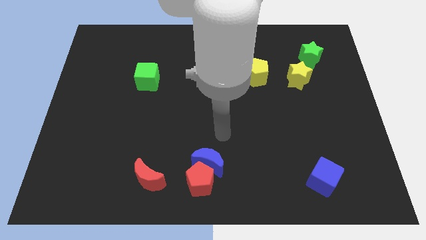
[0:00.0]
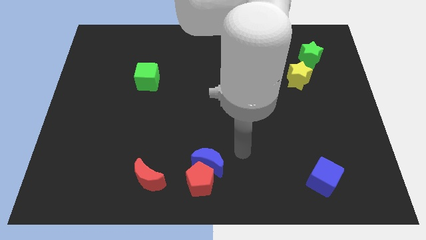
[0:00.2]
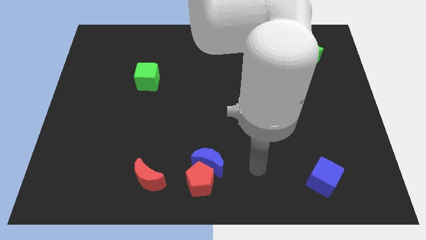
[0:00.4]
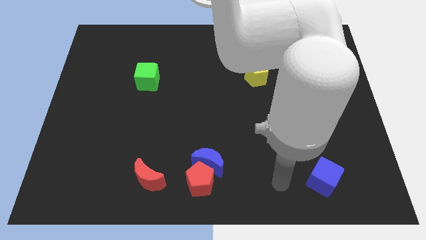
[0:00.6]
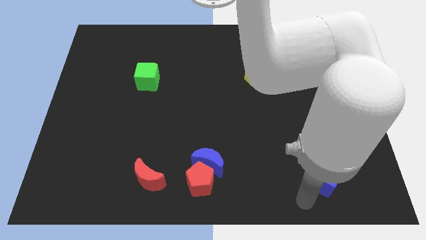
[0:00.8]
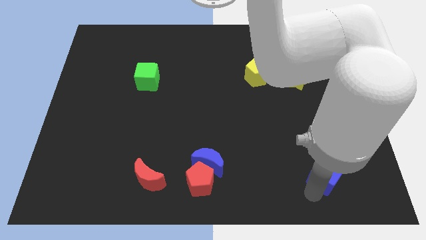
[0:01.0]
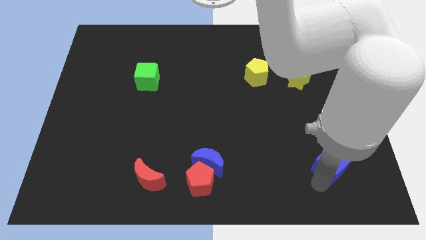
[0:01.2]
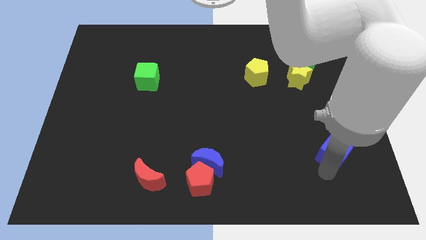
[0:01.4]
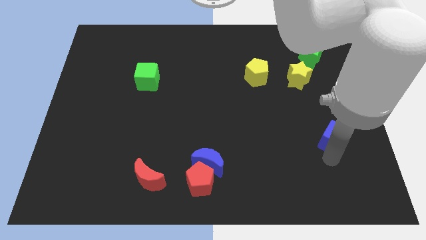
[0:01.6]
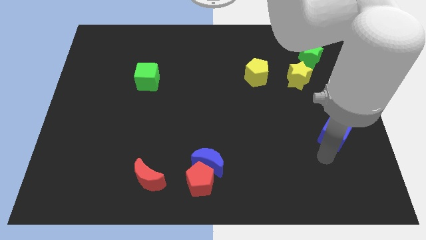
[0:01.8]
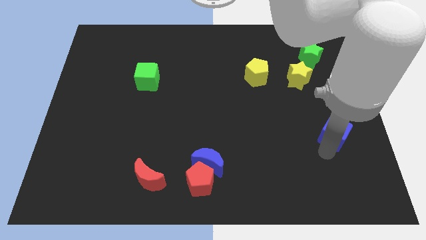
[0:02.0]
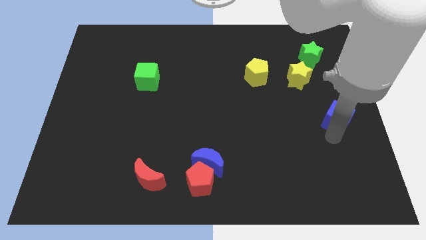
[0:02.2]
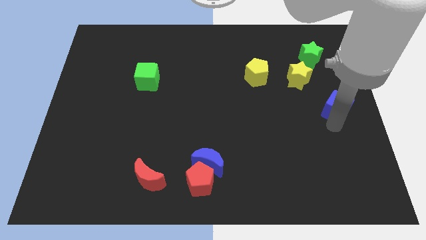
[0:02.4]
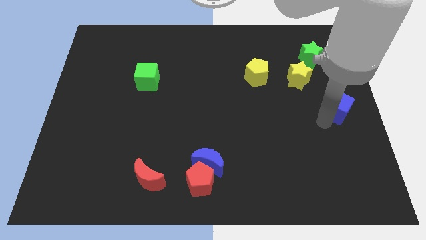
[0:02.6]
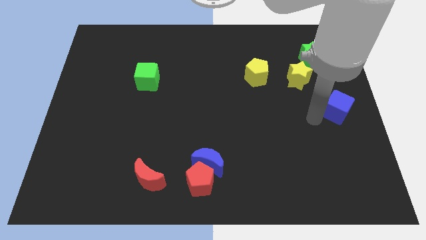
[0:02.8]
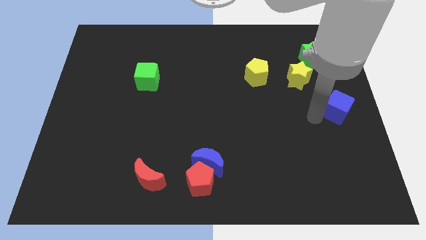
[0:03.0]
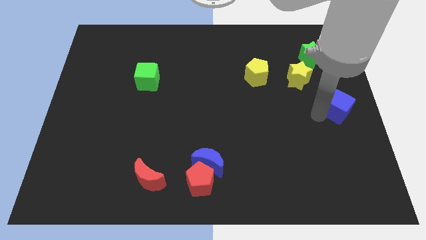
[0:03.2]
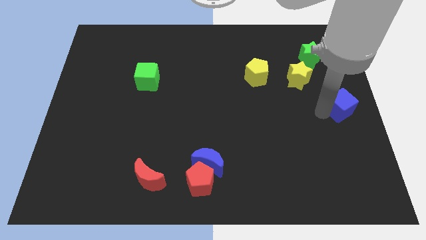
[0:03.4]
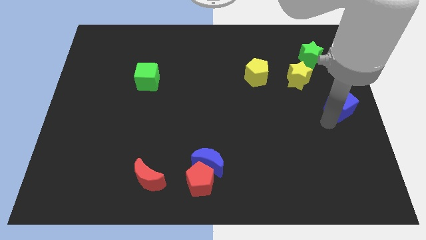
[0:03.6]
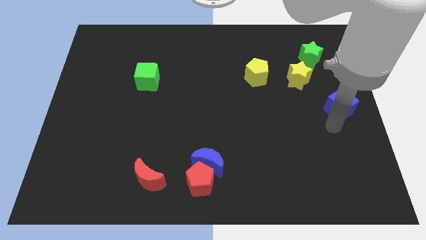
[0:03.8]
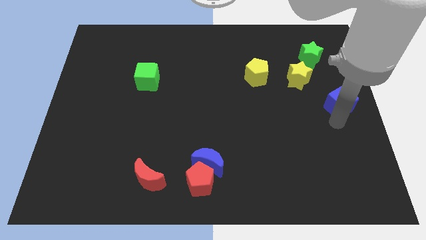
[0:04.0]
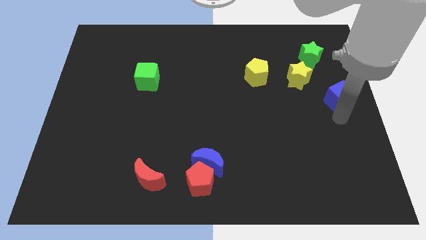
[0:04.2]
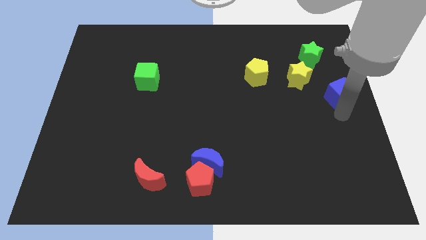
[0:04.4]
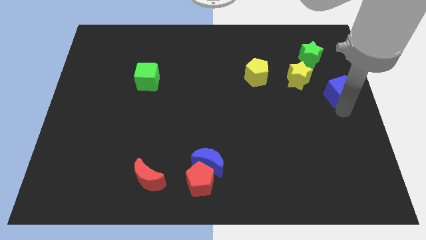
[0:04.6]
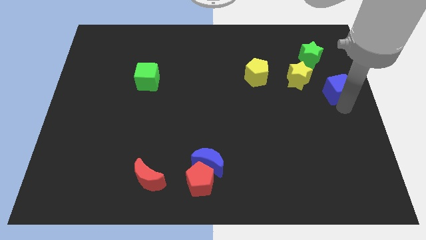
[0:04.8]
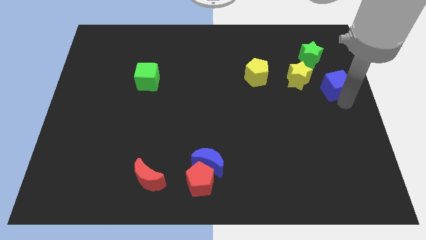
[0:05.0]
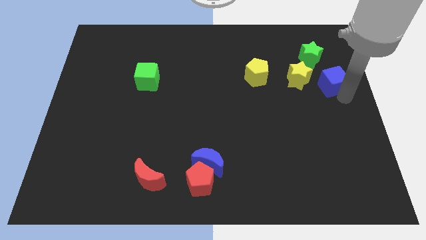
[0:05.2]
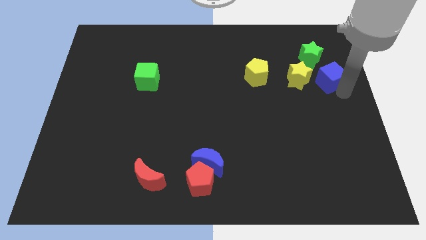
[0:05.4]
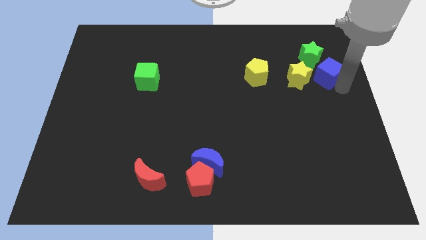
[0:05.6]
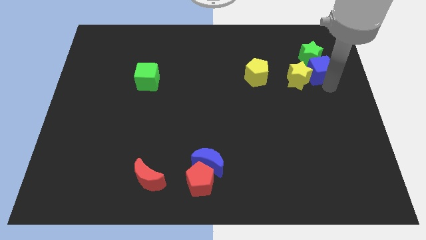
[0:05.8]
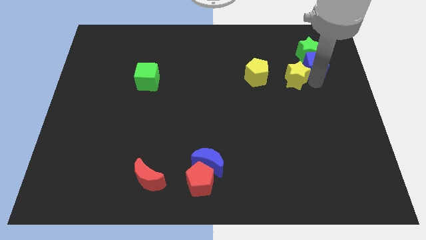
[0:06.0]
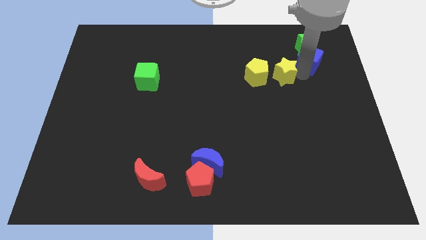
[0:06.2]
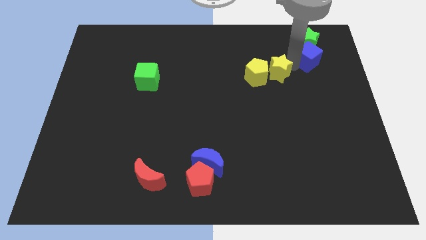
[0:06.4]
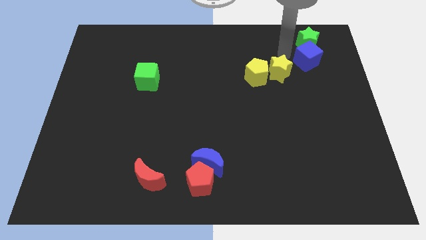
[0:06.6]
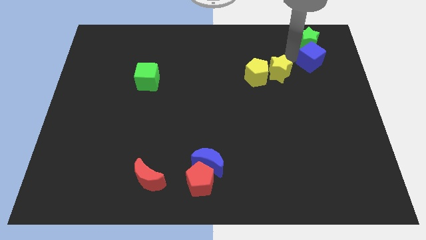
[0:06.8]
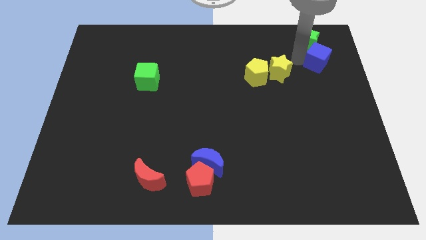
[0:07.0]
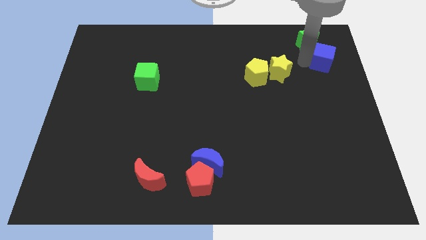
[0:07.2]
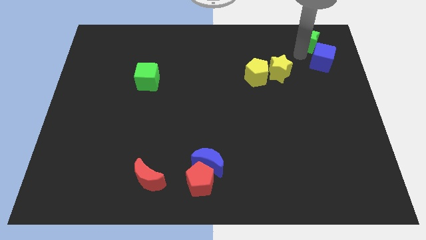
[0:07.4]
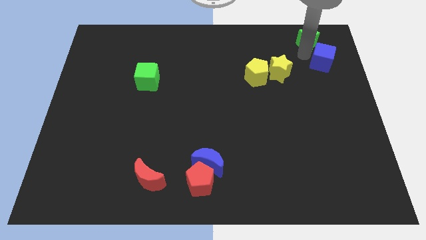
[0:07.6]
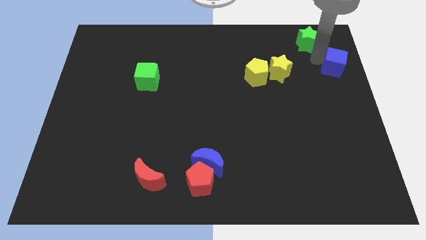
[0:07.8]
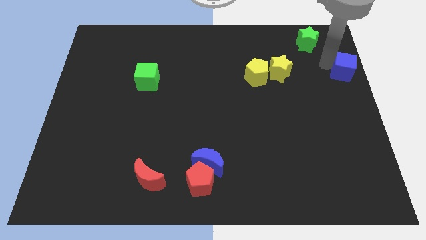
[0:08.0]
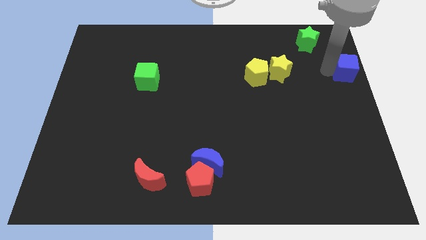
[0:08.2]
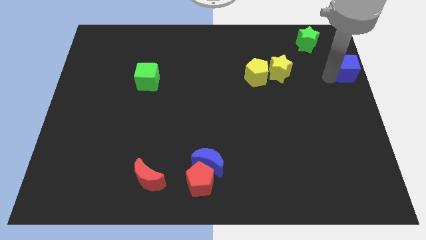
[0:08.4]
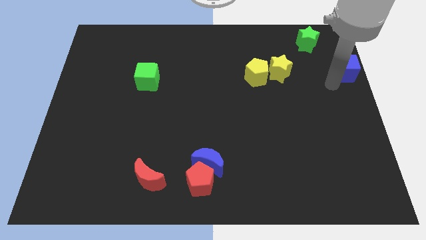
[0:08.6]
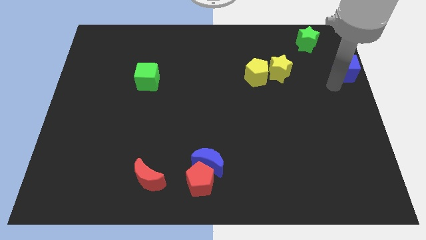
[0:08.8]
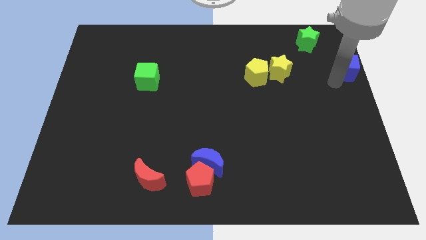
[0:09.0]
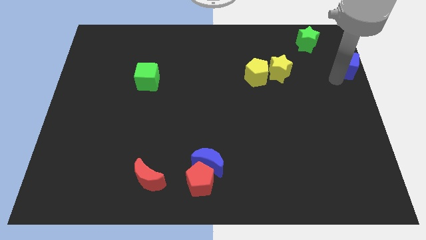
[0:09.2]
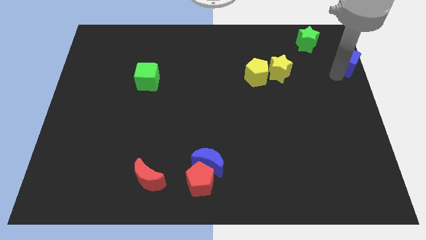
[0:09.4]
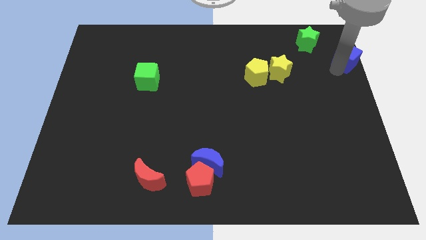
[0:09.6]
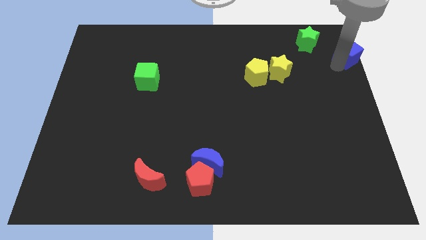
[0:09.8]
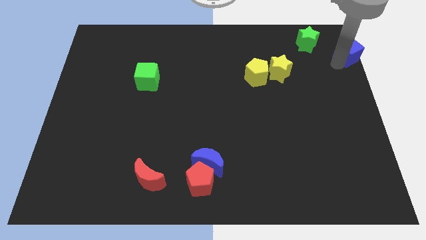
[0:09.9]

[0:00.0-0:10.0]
put the blue cube to the top right of the board

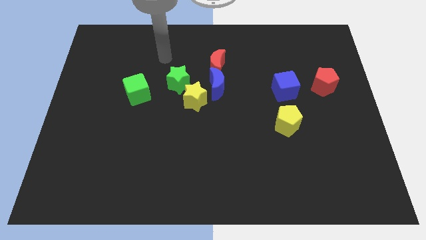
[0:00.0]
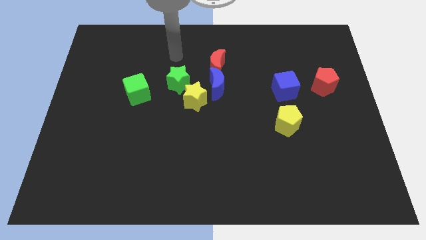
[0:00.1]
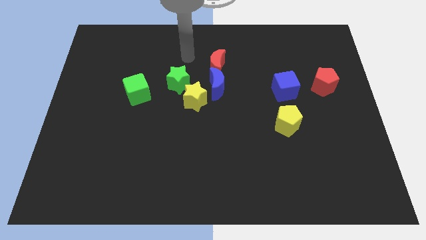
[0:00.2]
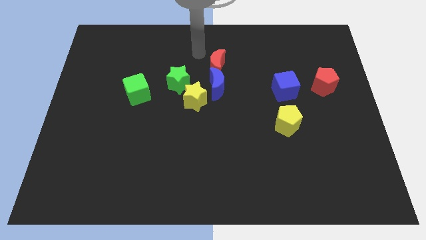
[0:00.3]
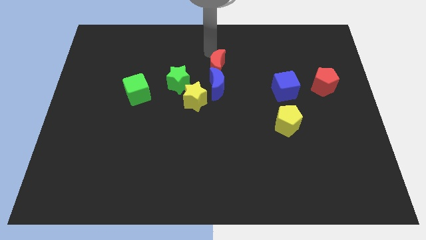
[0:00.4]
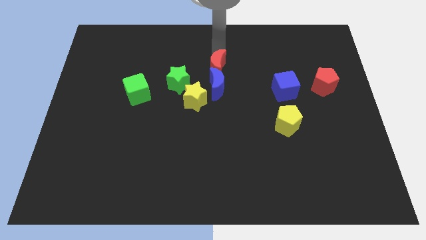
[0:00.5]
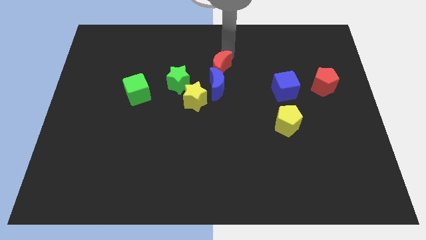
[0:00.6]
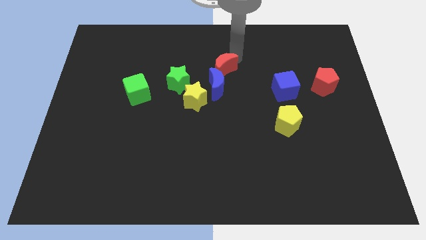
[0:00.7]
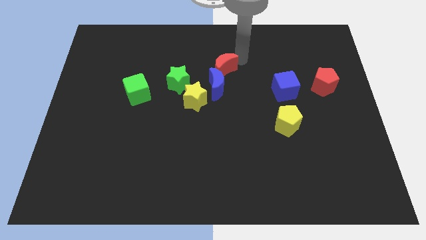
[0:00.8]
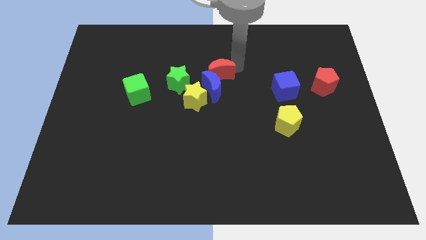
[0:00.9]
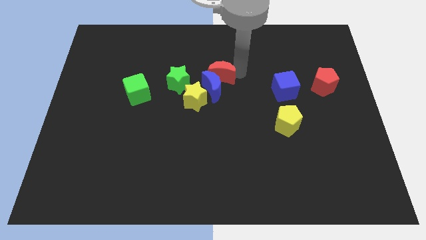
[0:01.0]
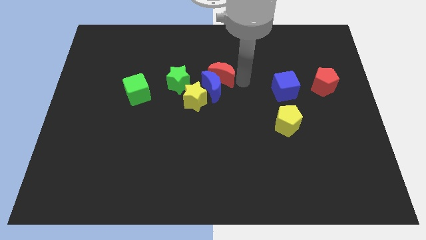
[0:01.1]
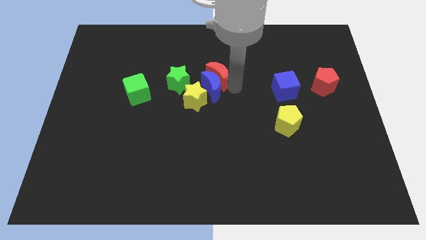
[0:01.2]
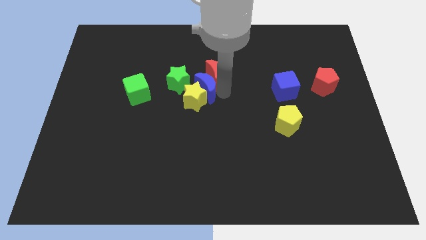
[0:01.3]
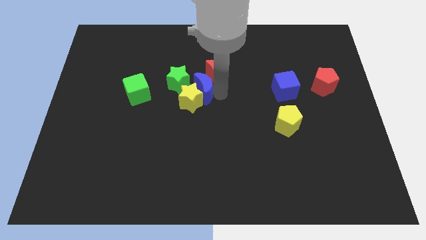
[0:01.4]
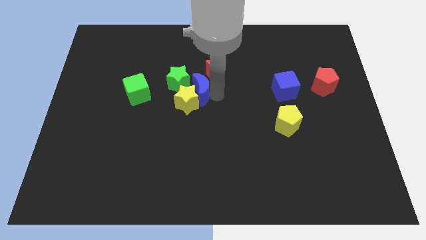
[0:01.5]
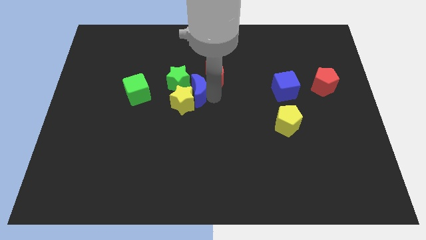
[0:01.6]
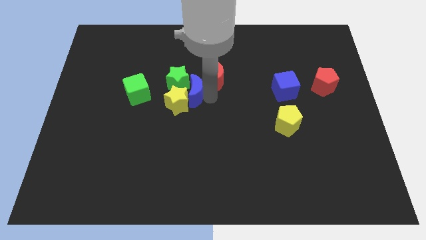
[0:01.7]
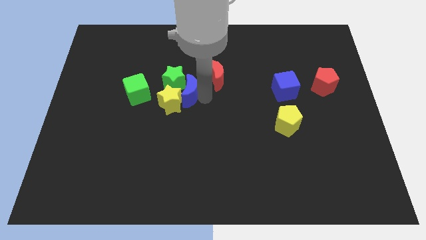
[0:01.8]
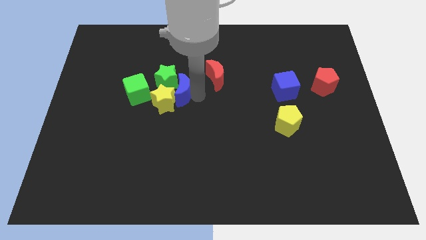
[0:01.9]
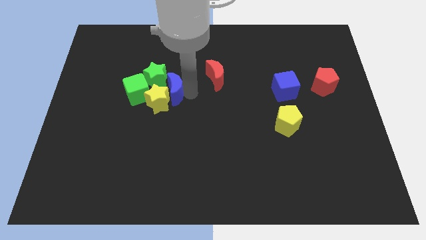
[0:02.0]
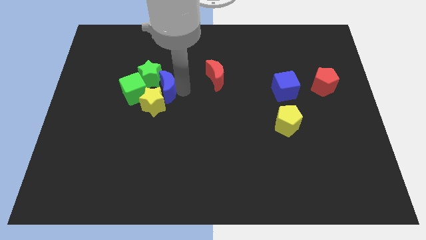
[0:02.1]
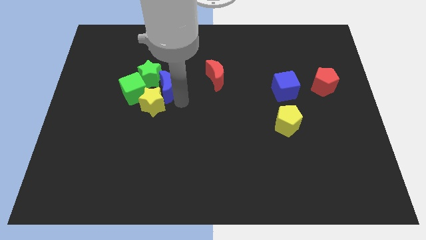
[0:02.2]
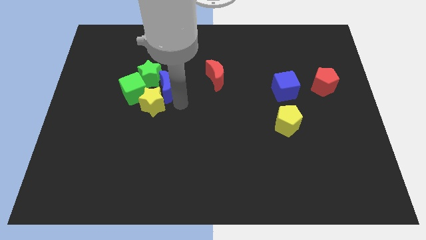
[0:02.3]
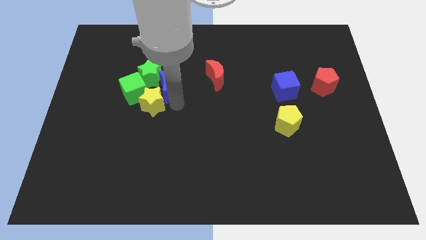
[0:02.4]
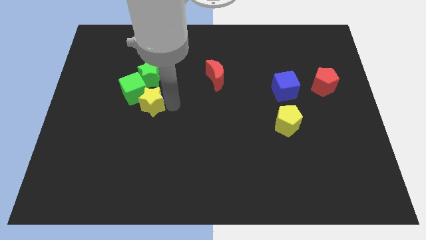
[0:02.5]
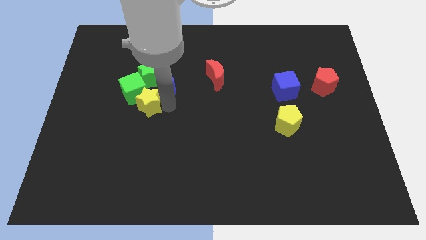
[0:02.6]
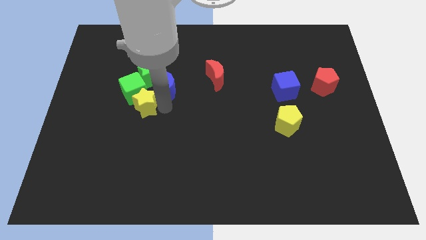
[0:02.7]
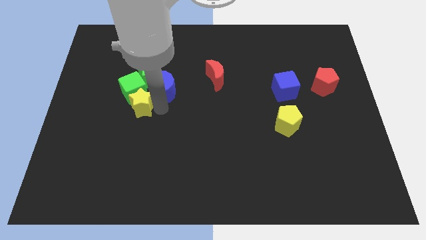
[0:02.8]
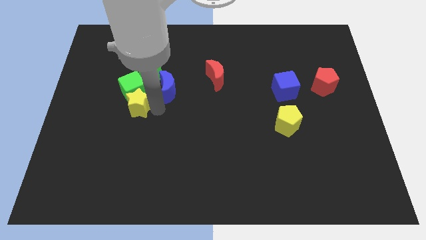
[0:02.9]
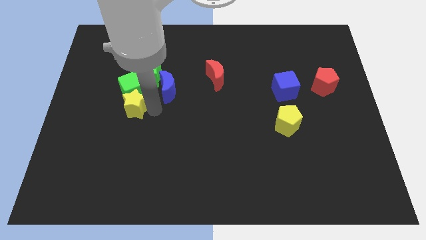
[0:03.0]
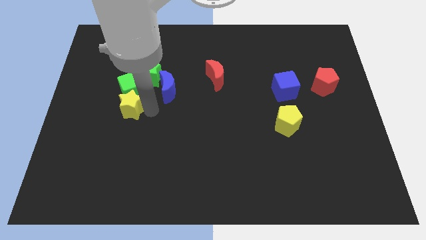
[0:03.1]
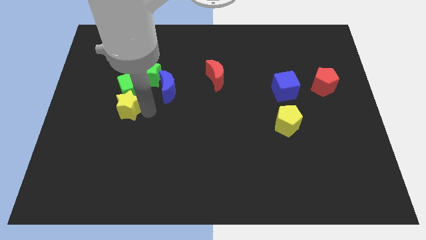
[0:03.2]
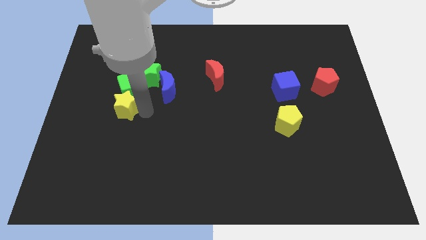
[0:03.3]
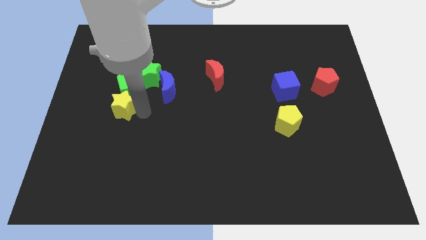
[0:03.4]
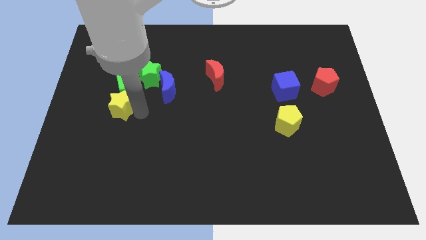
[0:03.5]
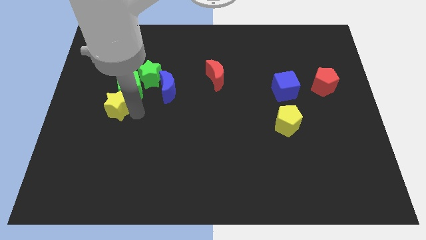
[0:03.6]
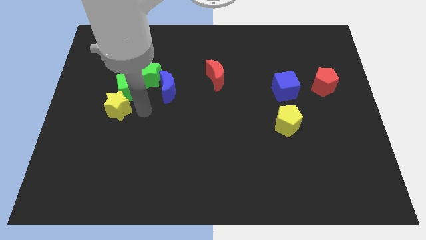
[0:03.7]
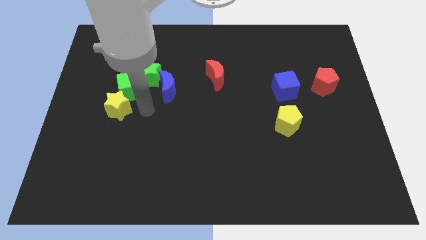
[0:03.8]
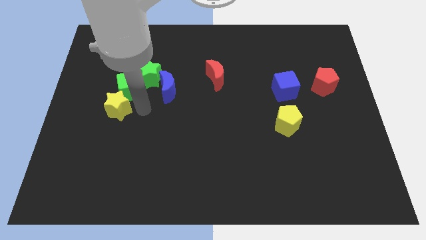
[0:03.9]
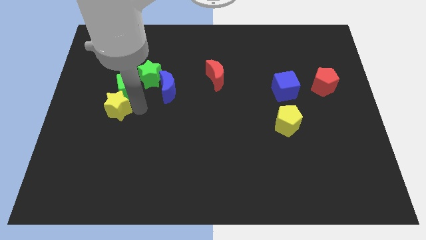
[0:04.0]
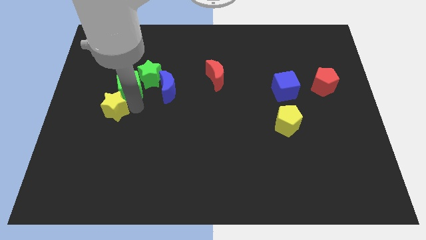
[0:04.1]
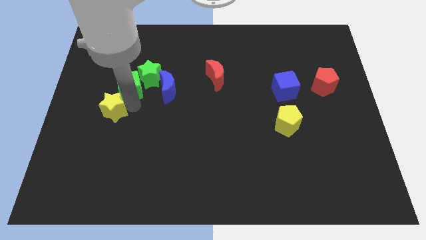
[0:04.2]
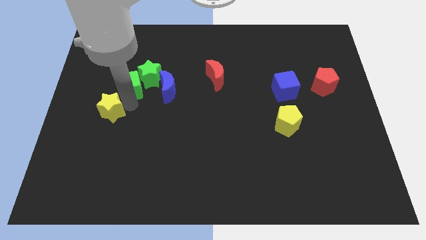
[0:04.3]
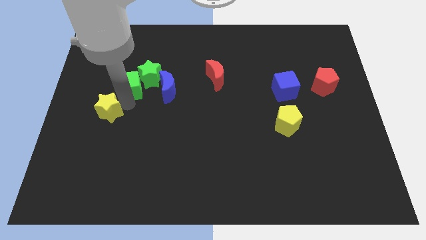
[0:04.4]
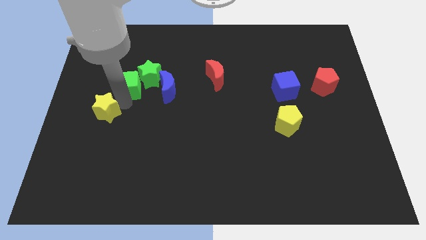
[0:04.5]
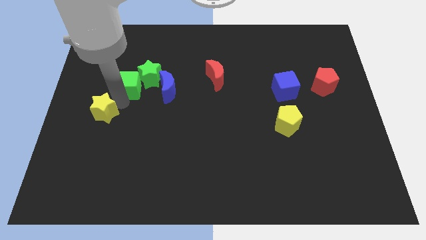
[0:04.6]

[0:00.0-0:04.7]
push the yellow star to the left side
